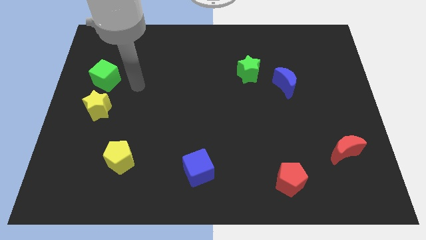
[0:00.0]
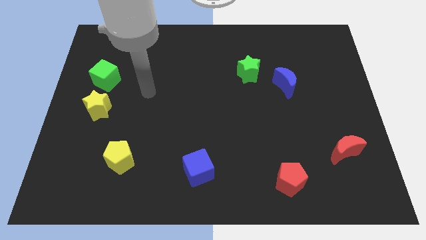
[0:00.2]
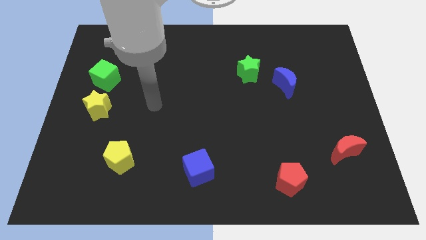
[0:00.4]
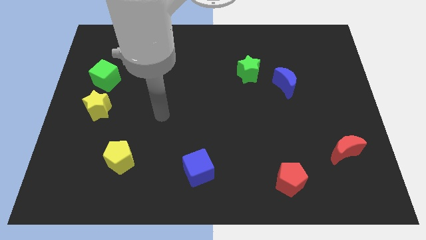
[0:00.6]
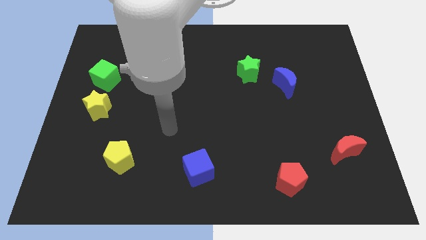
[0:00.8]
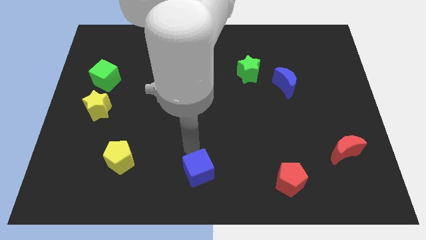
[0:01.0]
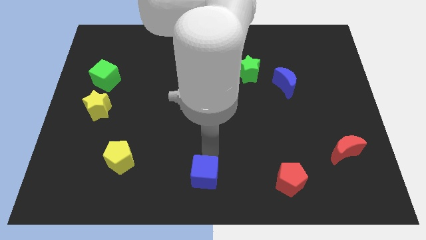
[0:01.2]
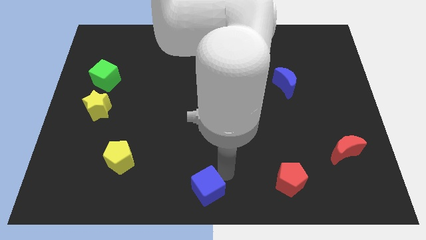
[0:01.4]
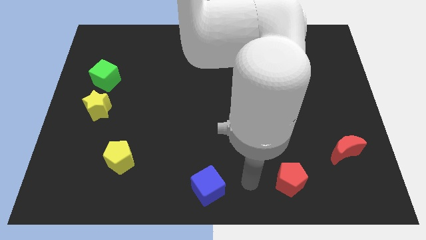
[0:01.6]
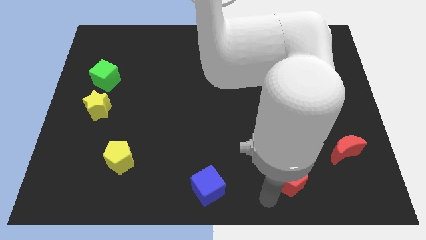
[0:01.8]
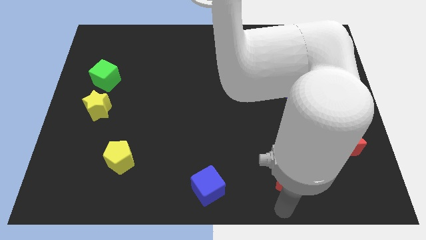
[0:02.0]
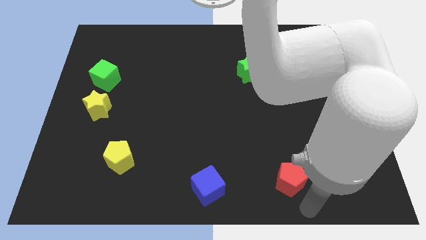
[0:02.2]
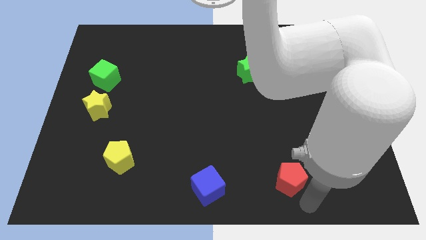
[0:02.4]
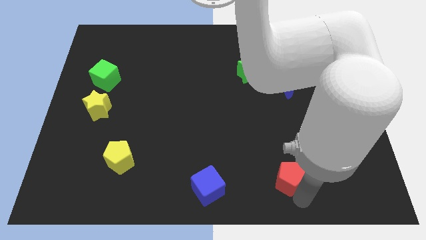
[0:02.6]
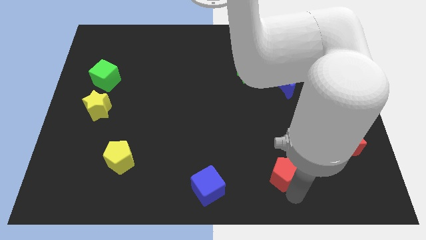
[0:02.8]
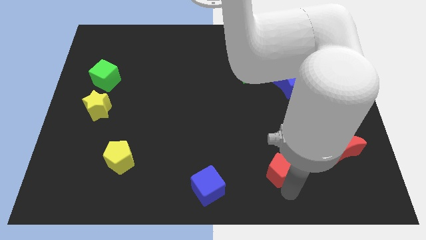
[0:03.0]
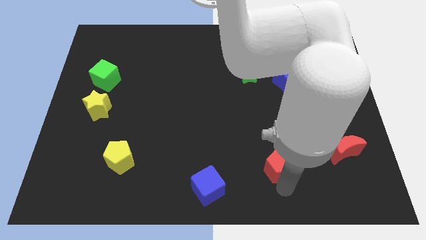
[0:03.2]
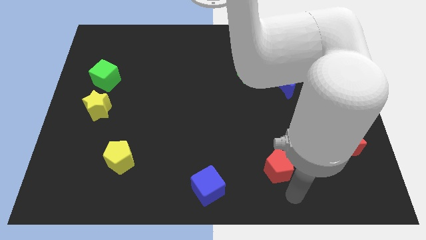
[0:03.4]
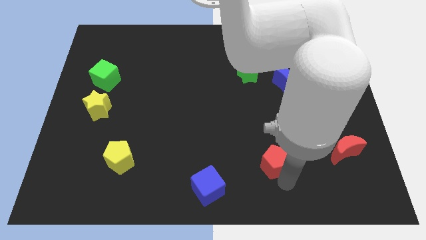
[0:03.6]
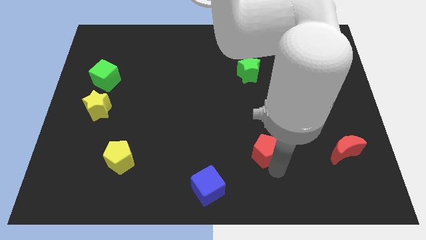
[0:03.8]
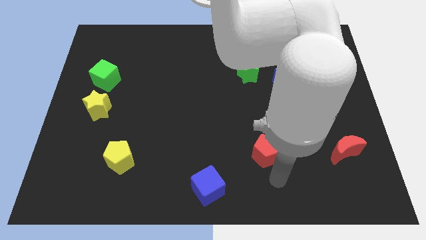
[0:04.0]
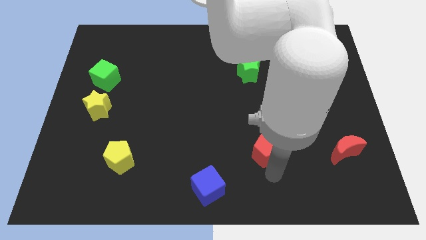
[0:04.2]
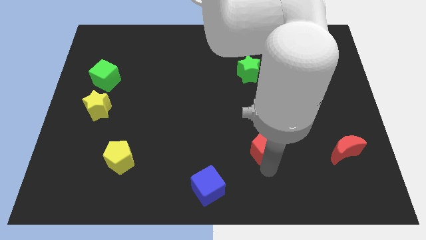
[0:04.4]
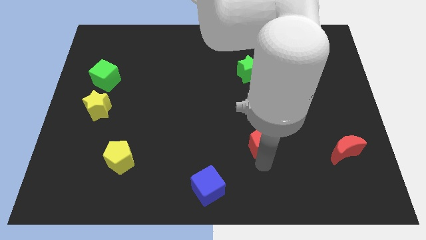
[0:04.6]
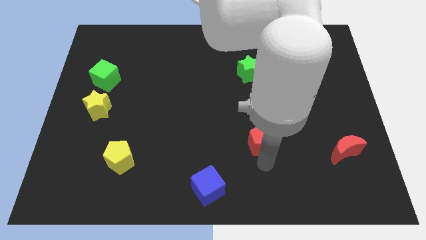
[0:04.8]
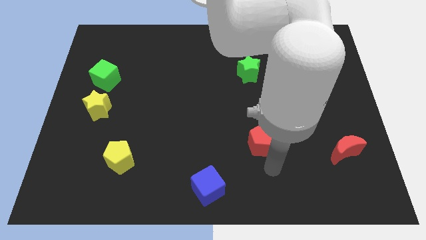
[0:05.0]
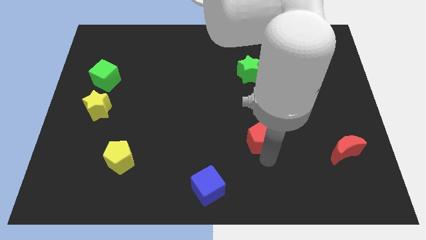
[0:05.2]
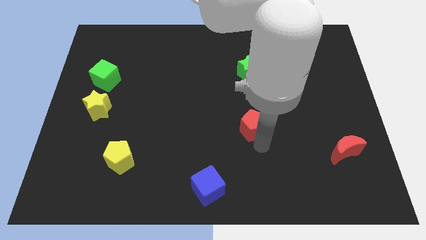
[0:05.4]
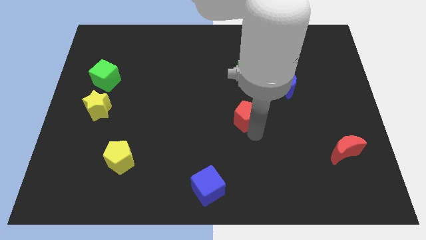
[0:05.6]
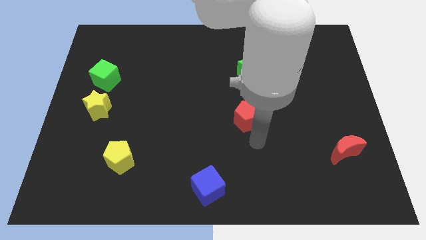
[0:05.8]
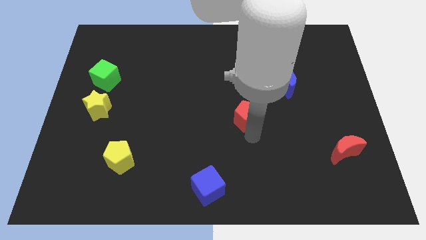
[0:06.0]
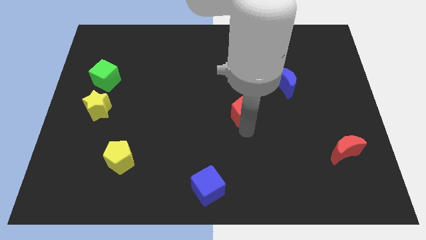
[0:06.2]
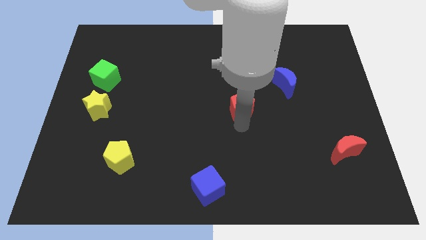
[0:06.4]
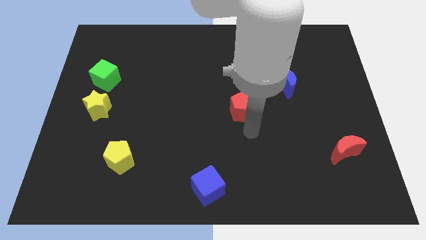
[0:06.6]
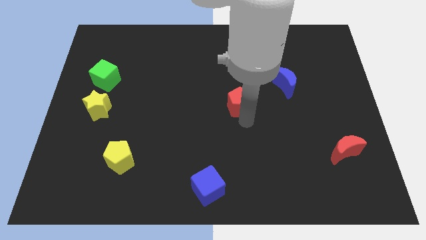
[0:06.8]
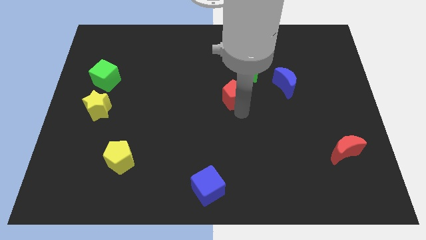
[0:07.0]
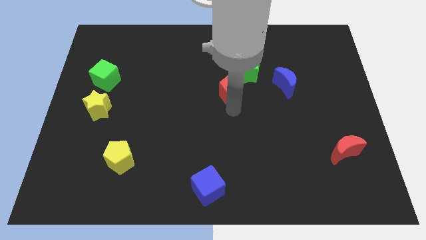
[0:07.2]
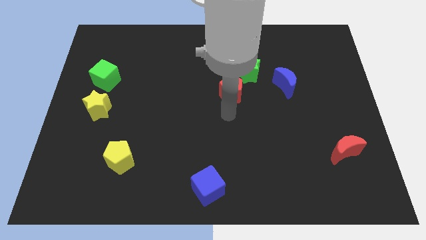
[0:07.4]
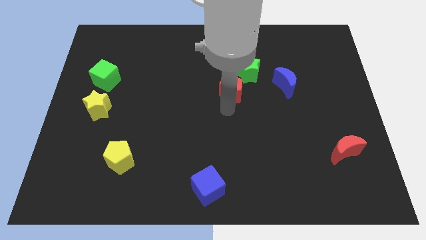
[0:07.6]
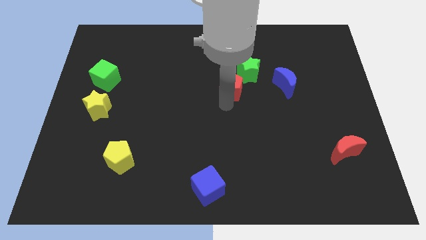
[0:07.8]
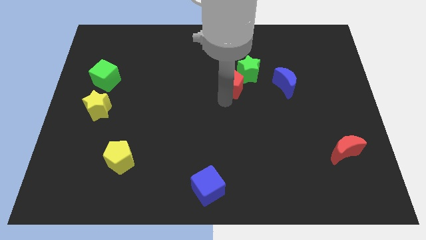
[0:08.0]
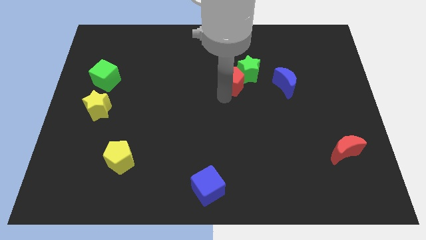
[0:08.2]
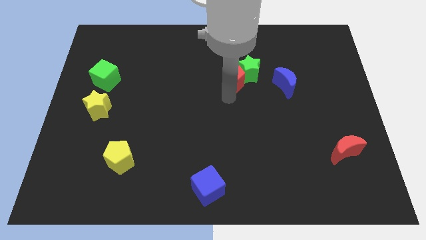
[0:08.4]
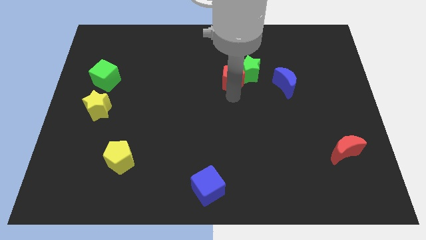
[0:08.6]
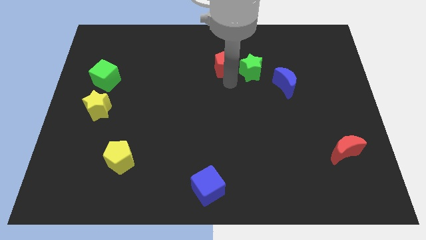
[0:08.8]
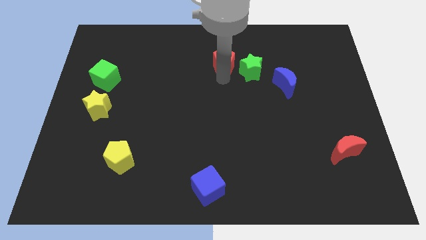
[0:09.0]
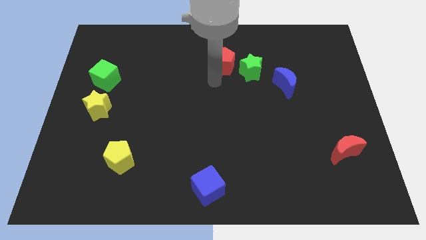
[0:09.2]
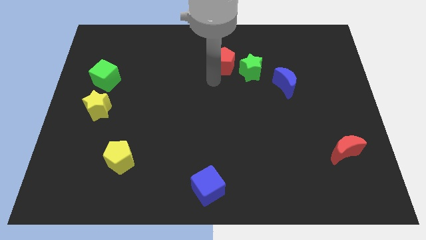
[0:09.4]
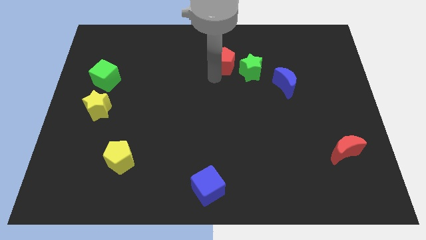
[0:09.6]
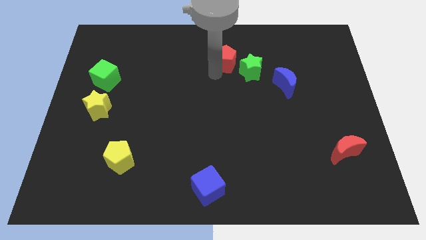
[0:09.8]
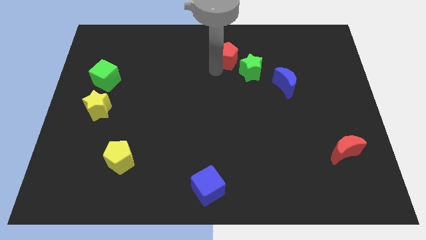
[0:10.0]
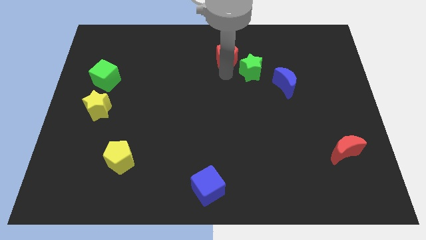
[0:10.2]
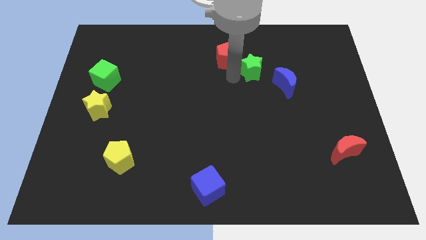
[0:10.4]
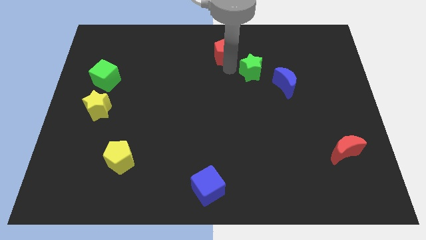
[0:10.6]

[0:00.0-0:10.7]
slide the red pentagon to the towards your base

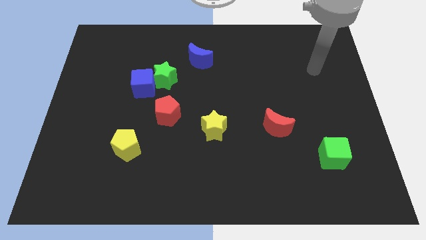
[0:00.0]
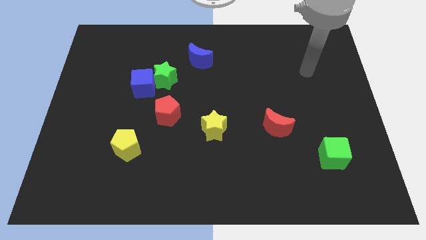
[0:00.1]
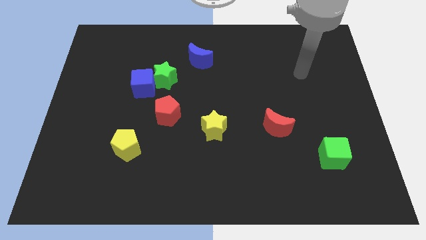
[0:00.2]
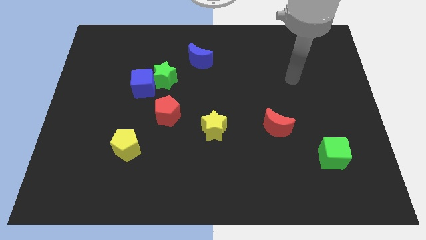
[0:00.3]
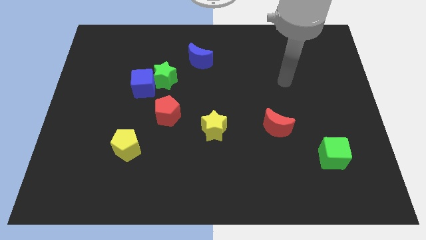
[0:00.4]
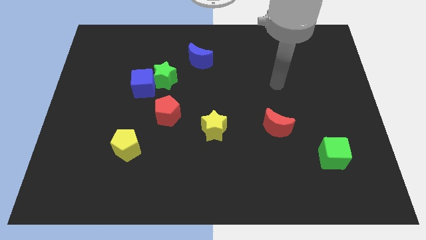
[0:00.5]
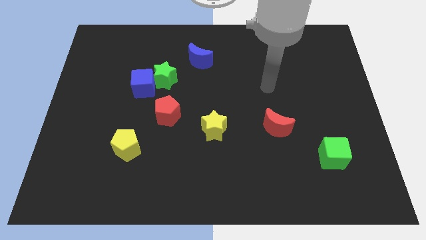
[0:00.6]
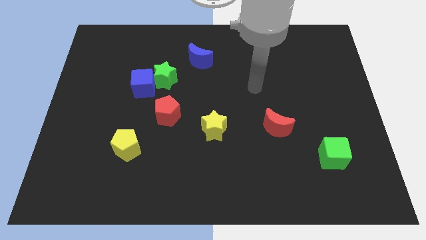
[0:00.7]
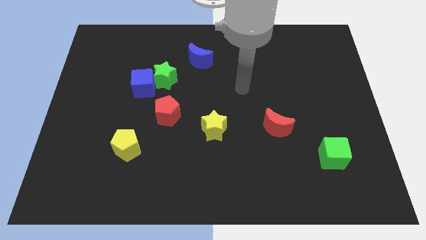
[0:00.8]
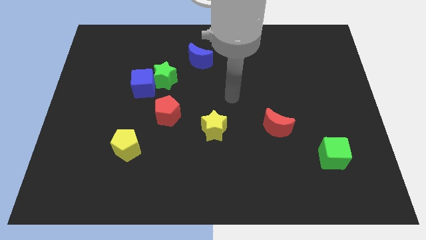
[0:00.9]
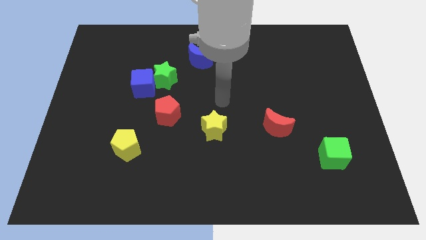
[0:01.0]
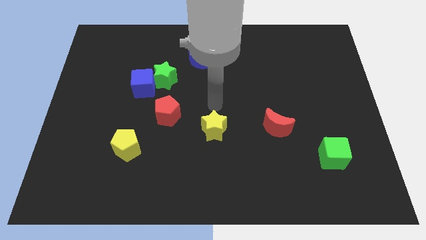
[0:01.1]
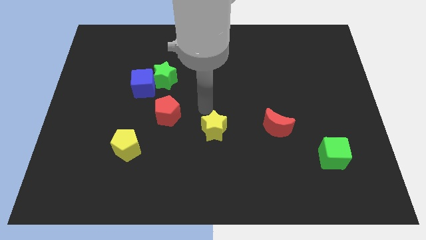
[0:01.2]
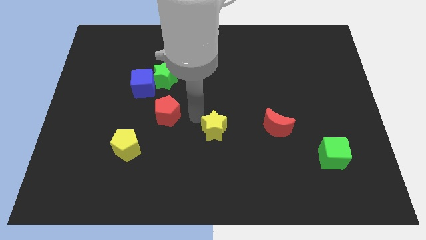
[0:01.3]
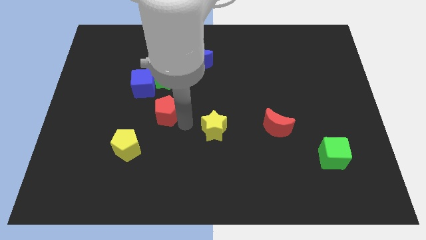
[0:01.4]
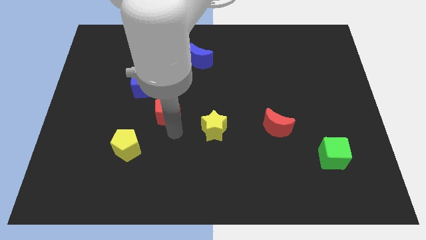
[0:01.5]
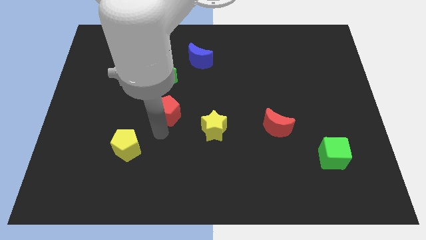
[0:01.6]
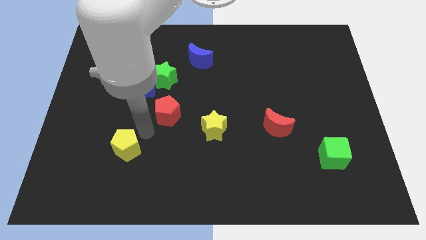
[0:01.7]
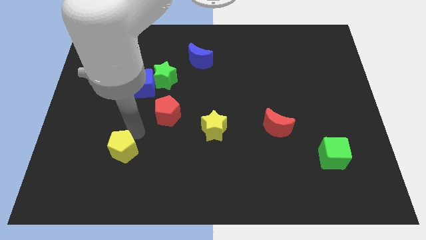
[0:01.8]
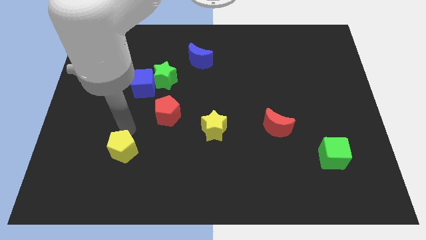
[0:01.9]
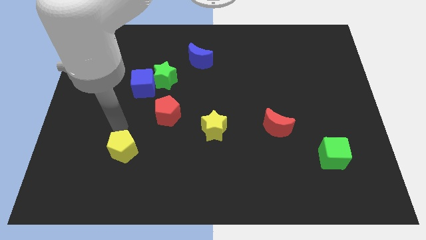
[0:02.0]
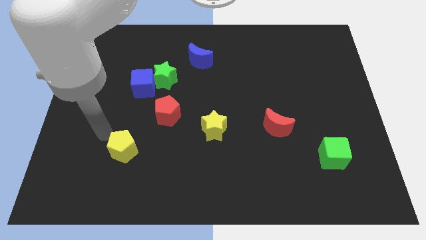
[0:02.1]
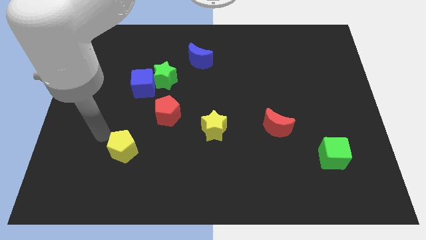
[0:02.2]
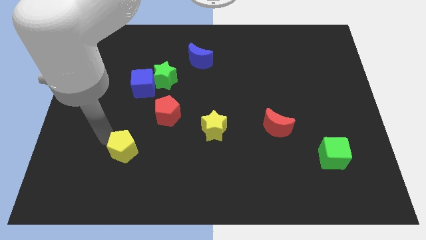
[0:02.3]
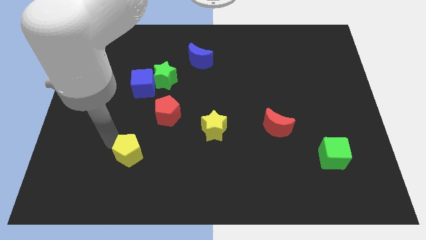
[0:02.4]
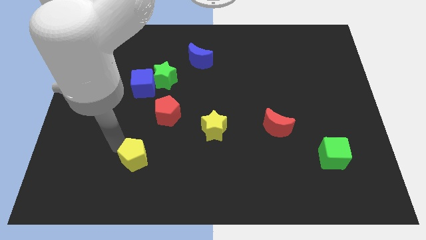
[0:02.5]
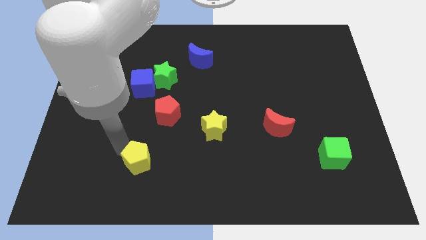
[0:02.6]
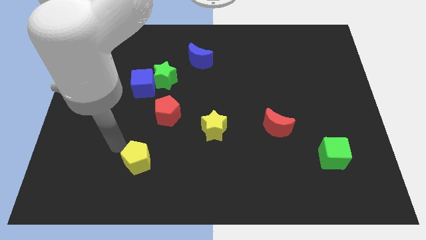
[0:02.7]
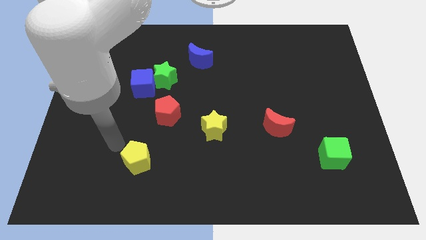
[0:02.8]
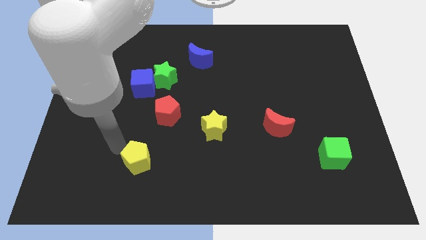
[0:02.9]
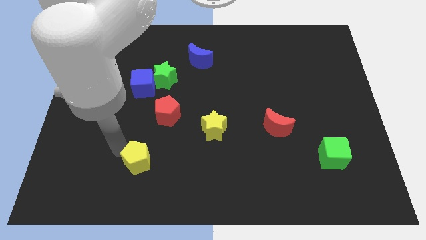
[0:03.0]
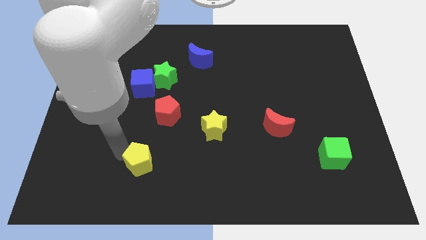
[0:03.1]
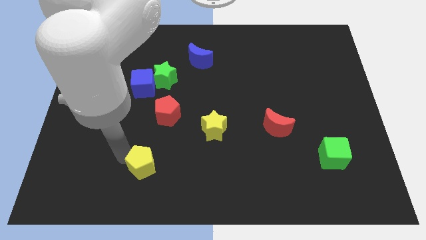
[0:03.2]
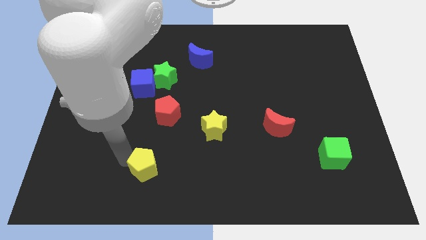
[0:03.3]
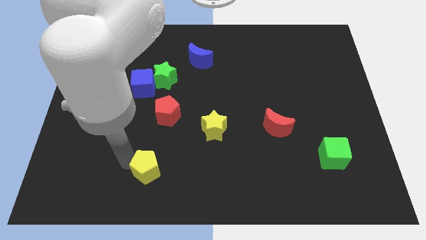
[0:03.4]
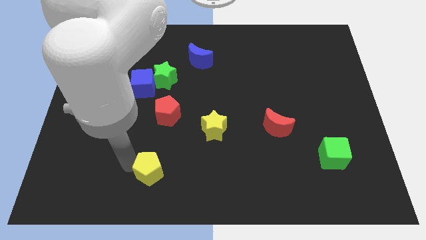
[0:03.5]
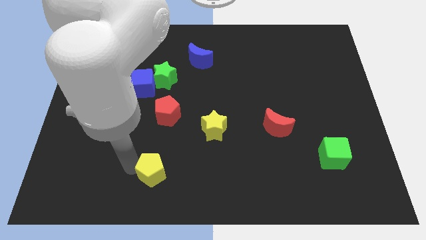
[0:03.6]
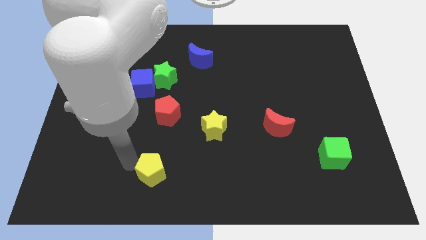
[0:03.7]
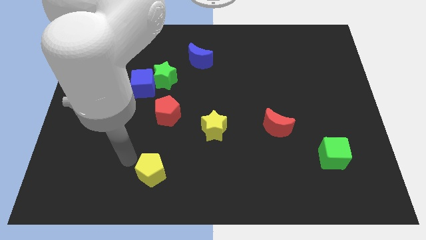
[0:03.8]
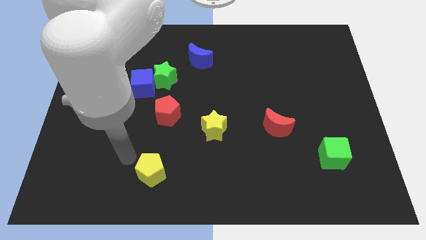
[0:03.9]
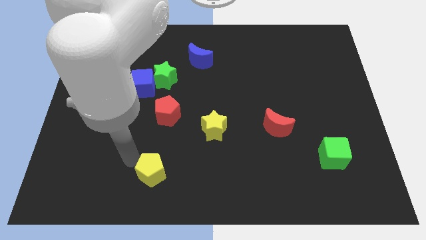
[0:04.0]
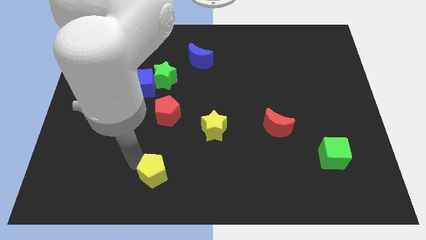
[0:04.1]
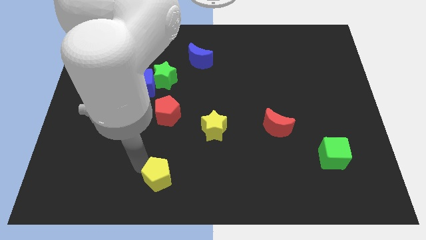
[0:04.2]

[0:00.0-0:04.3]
put the yellow pentagon to the bottom side
